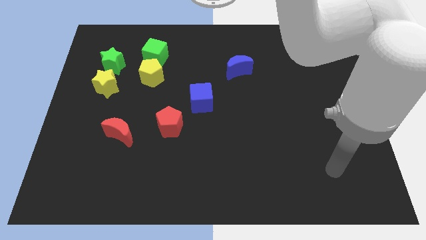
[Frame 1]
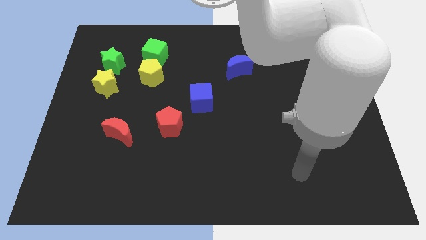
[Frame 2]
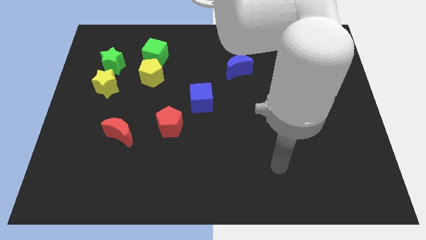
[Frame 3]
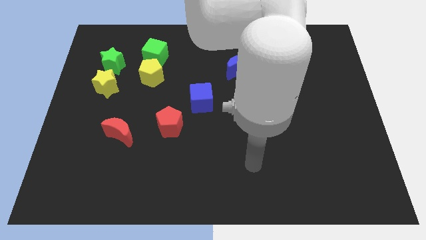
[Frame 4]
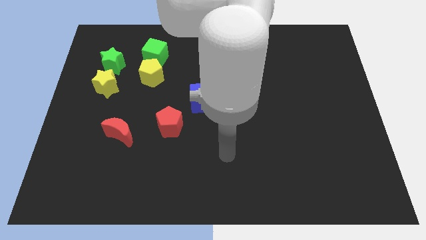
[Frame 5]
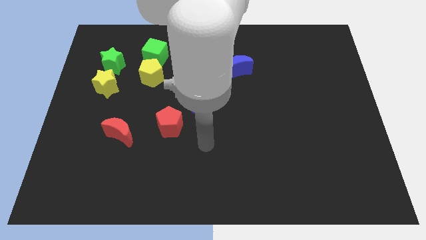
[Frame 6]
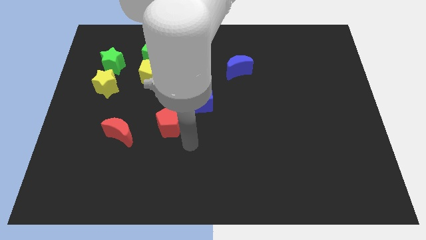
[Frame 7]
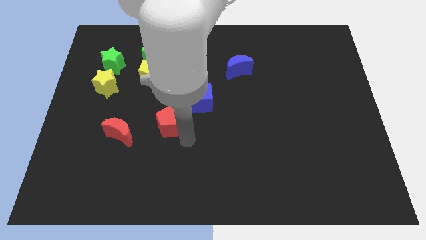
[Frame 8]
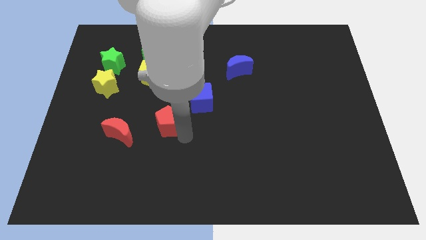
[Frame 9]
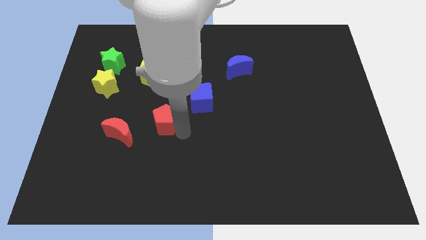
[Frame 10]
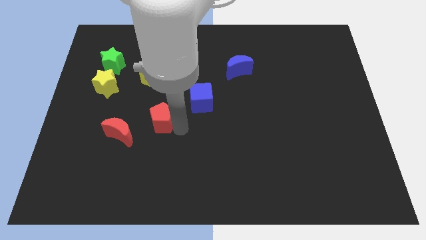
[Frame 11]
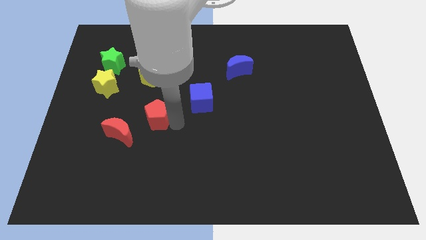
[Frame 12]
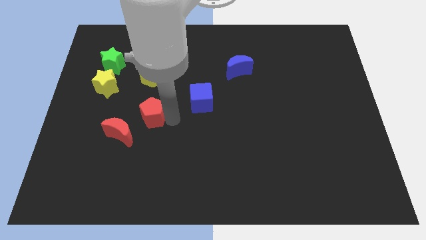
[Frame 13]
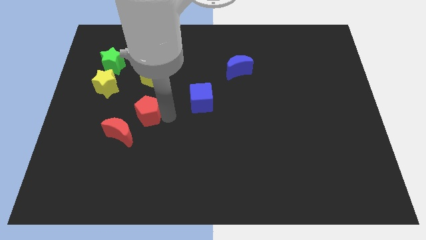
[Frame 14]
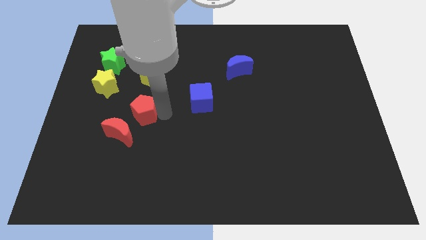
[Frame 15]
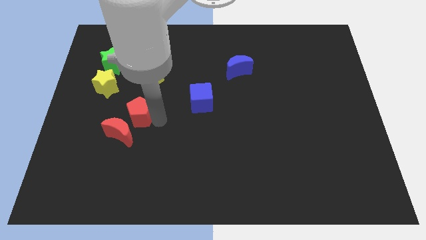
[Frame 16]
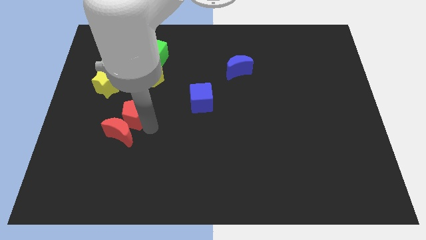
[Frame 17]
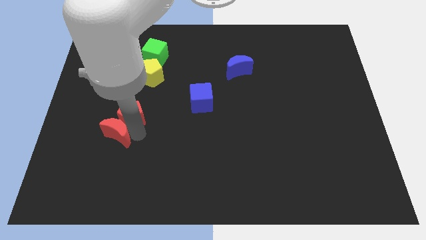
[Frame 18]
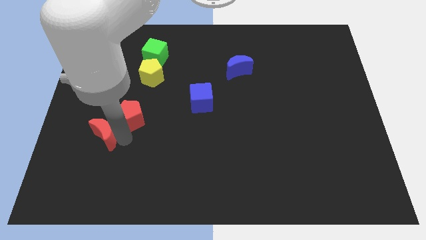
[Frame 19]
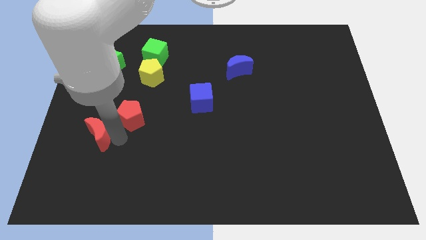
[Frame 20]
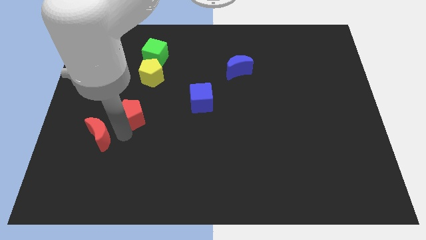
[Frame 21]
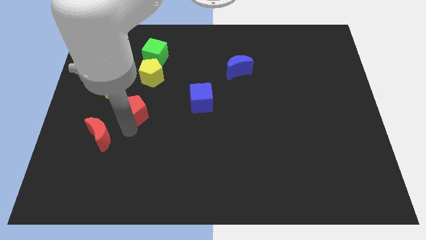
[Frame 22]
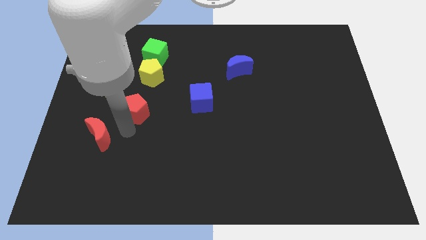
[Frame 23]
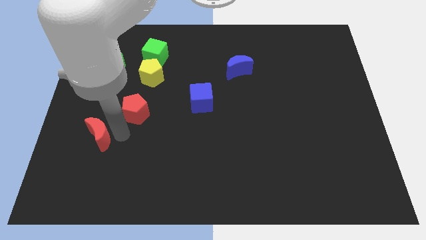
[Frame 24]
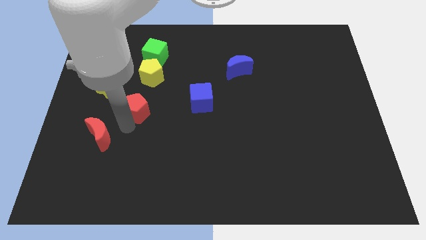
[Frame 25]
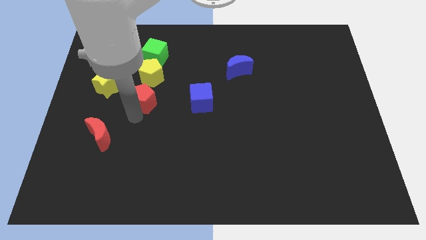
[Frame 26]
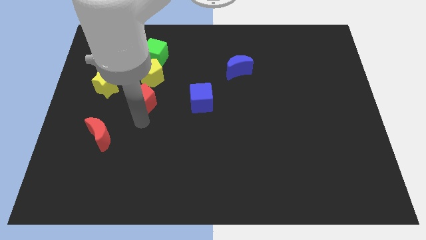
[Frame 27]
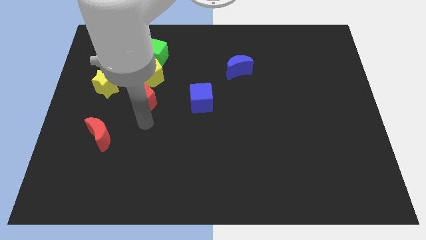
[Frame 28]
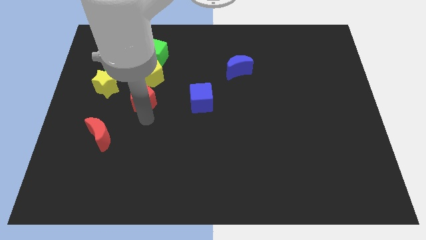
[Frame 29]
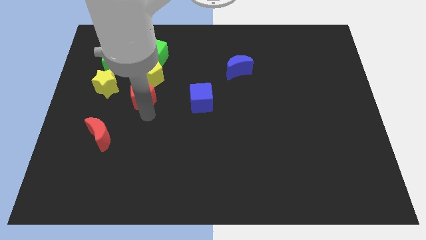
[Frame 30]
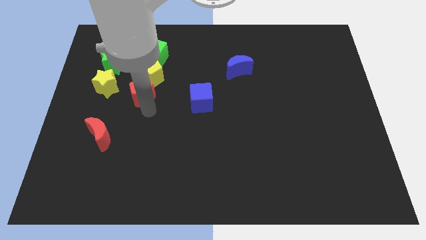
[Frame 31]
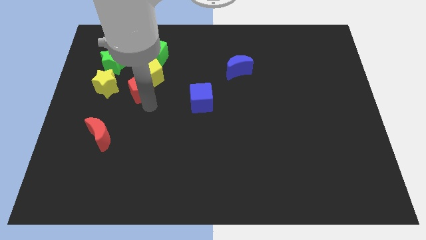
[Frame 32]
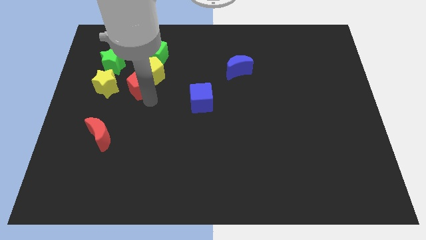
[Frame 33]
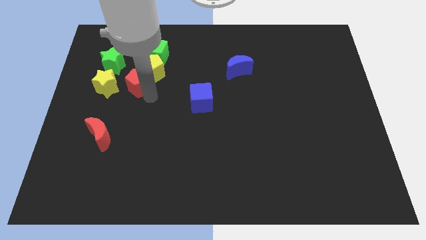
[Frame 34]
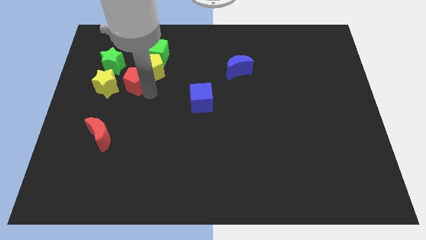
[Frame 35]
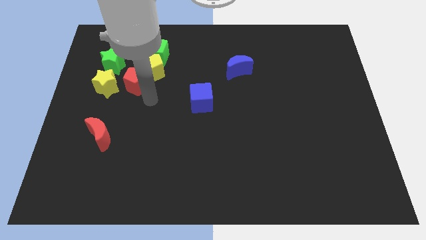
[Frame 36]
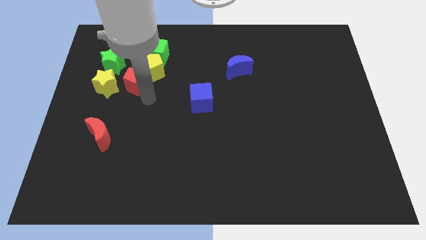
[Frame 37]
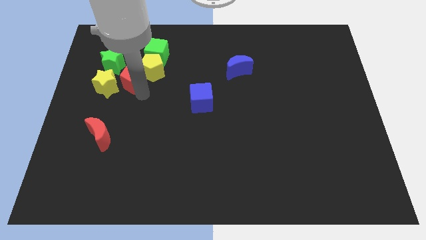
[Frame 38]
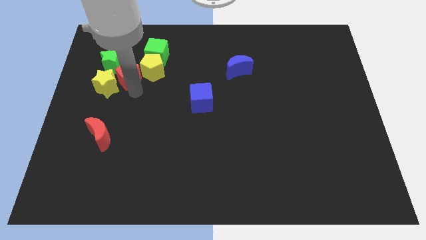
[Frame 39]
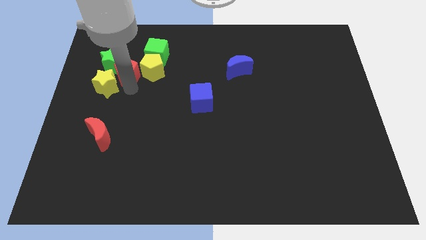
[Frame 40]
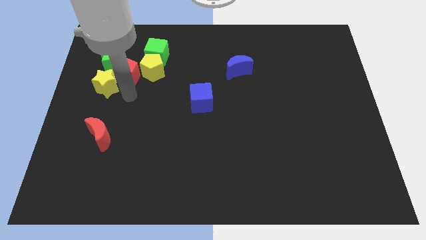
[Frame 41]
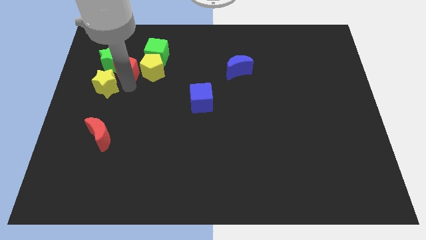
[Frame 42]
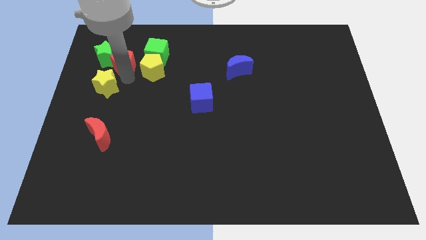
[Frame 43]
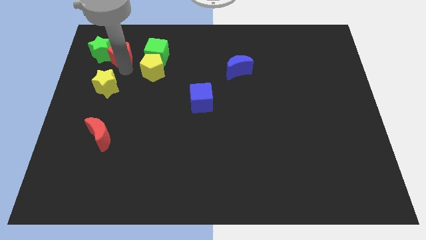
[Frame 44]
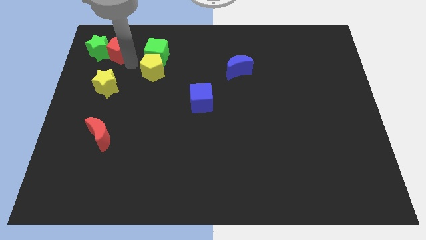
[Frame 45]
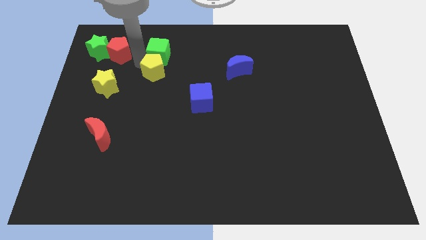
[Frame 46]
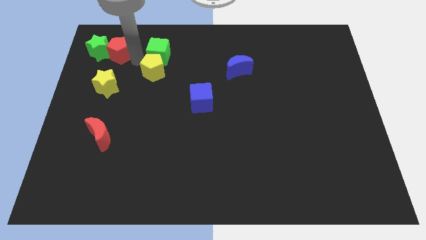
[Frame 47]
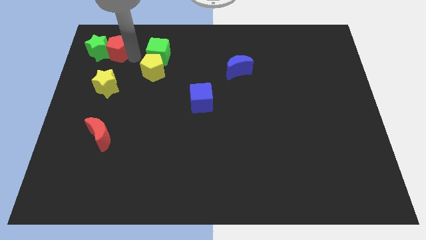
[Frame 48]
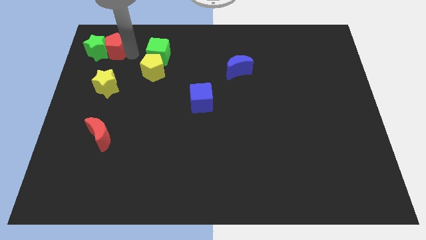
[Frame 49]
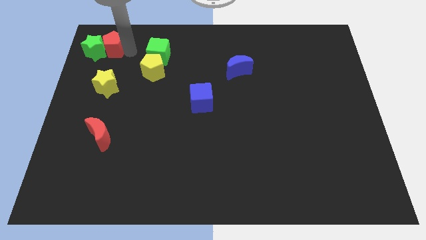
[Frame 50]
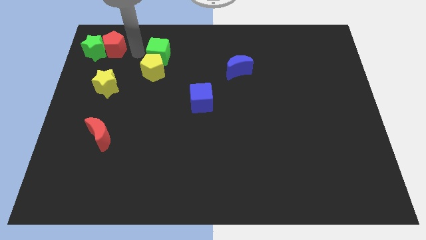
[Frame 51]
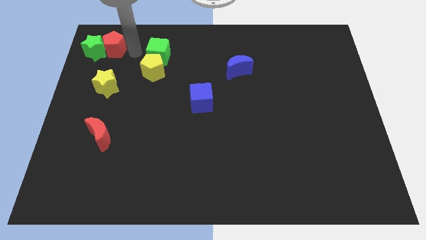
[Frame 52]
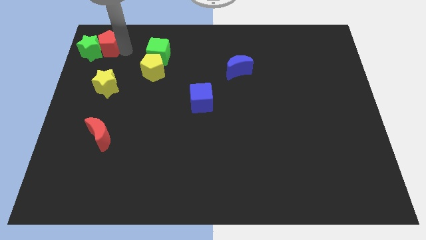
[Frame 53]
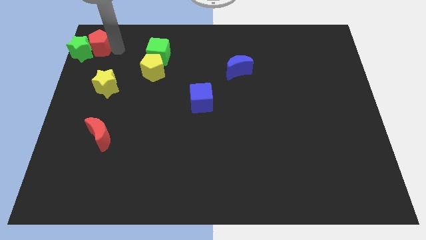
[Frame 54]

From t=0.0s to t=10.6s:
slide the red pentagon to the top left corner

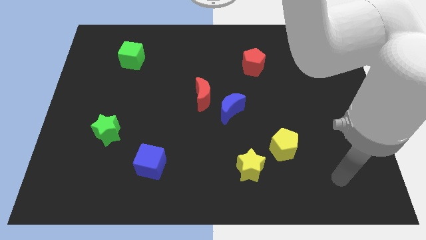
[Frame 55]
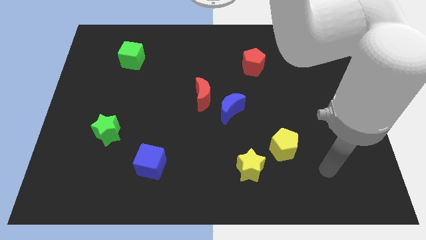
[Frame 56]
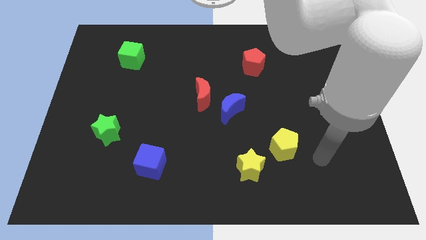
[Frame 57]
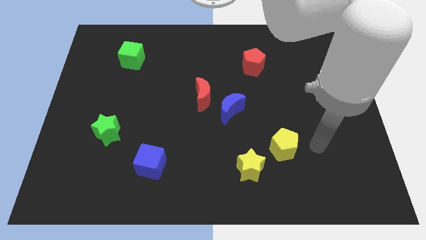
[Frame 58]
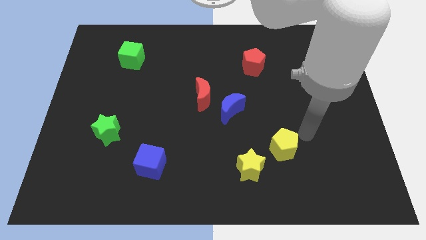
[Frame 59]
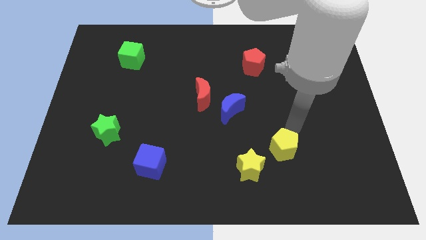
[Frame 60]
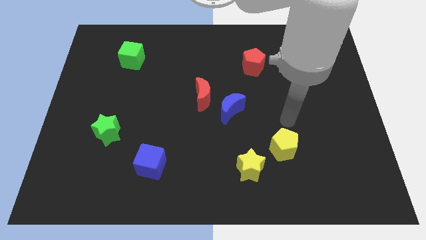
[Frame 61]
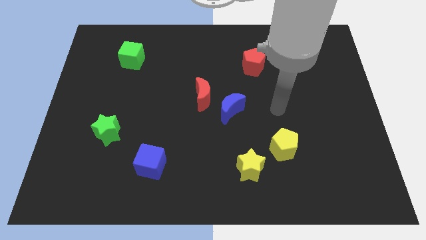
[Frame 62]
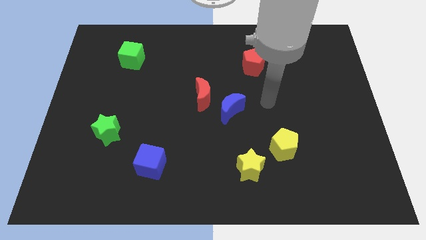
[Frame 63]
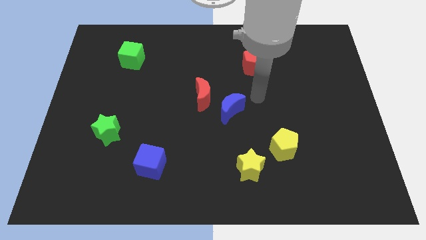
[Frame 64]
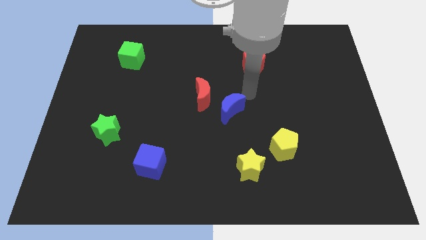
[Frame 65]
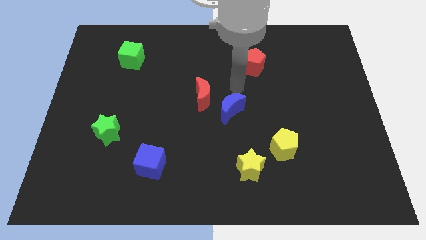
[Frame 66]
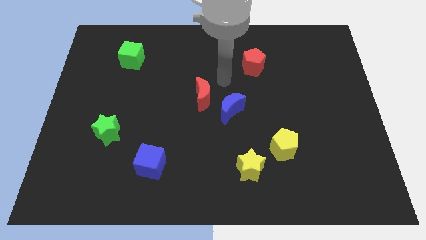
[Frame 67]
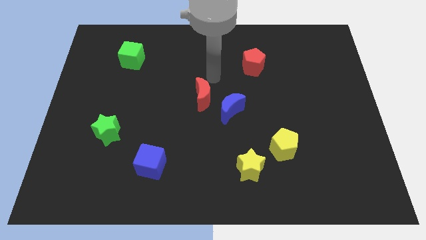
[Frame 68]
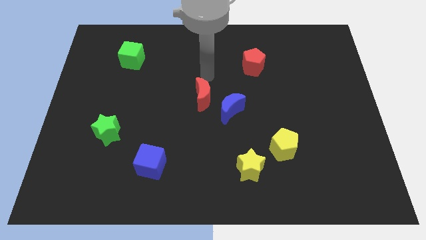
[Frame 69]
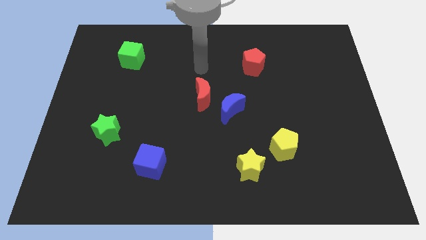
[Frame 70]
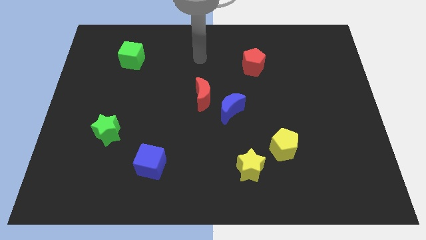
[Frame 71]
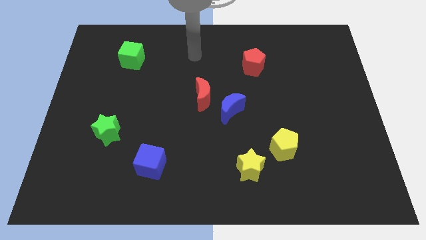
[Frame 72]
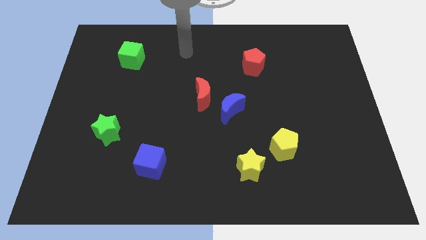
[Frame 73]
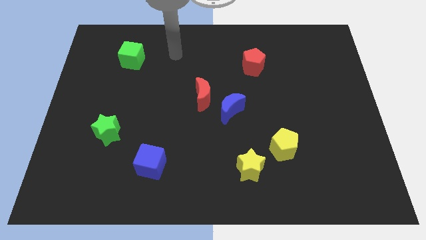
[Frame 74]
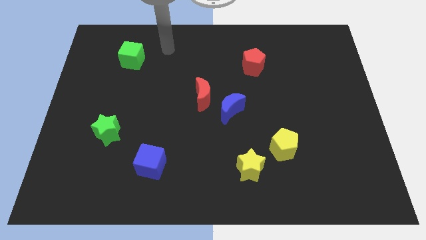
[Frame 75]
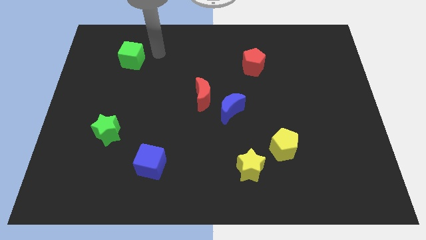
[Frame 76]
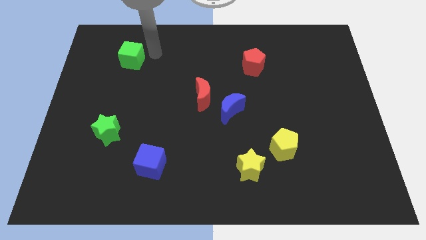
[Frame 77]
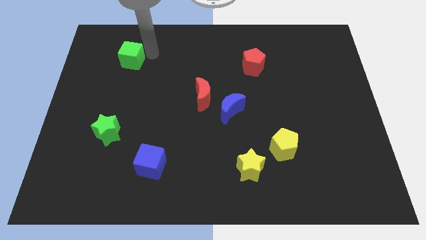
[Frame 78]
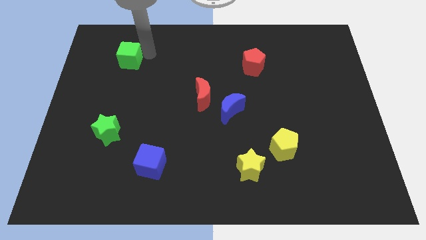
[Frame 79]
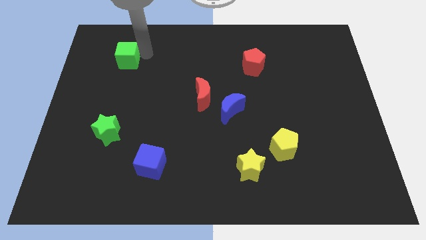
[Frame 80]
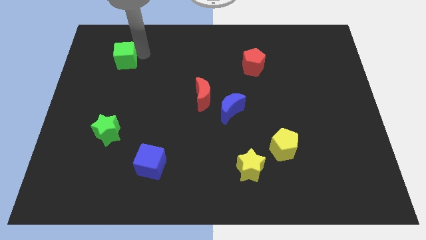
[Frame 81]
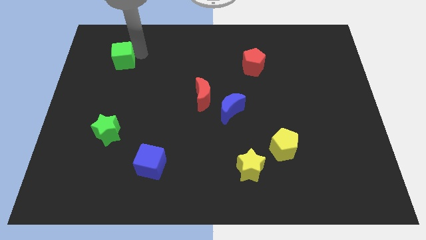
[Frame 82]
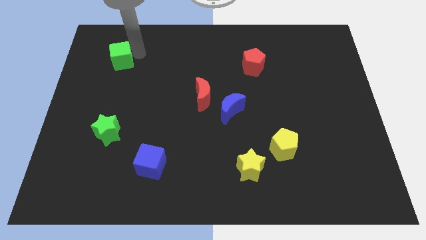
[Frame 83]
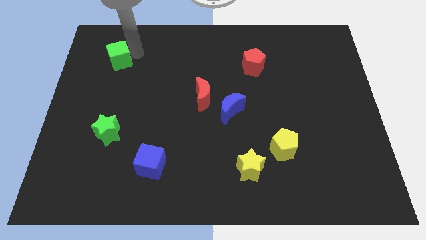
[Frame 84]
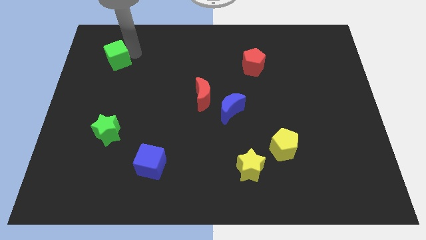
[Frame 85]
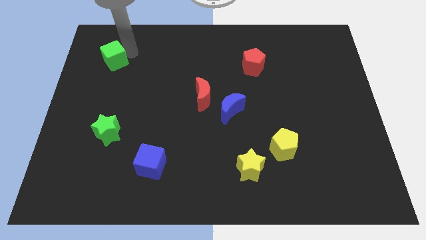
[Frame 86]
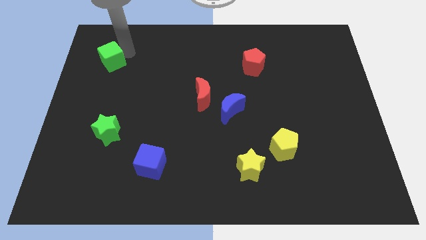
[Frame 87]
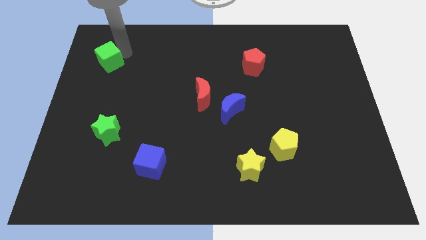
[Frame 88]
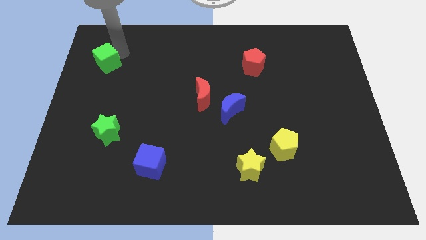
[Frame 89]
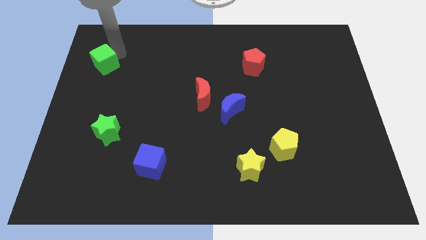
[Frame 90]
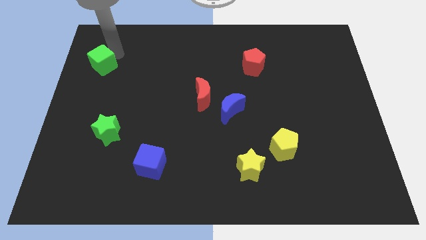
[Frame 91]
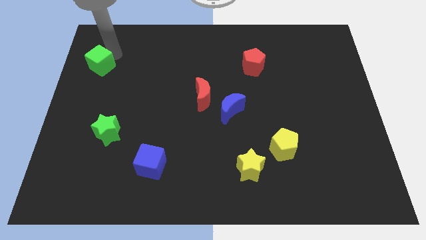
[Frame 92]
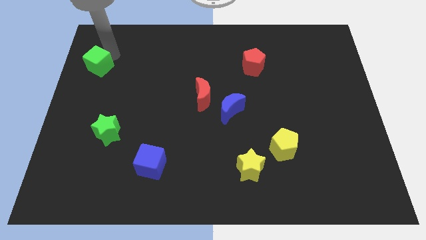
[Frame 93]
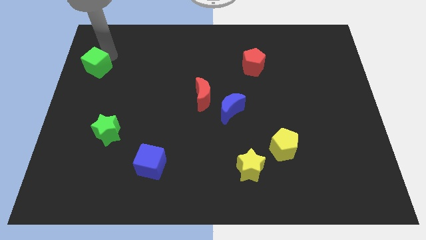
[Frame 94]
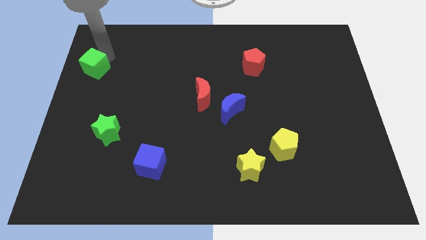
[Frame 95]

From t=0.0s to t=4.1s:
push the green cube to the left side
